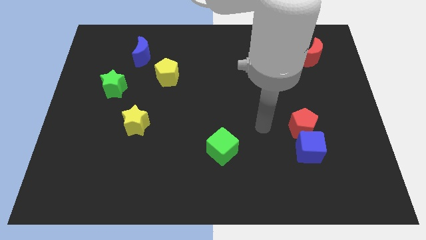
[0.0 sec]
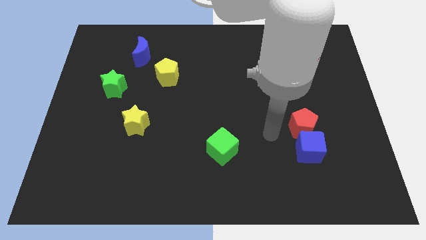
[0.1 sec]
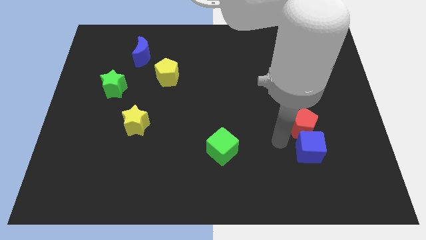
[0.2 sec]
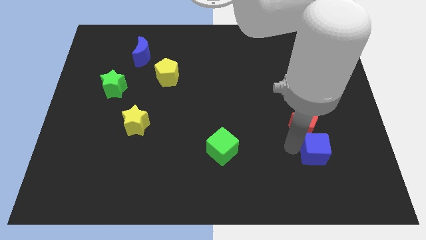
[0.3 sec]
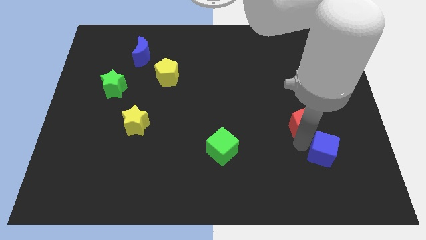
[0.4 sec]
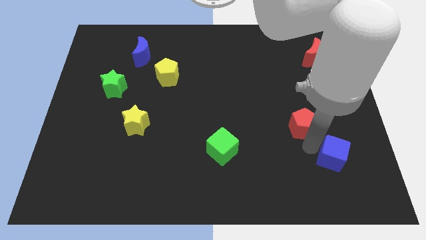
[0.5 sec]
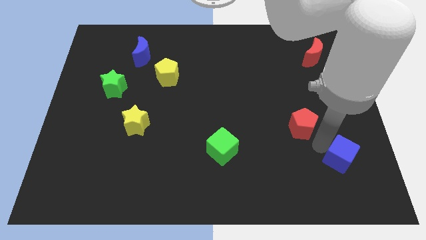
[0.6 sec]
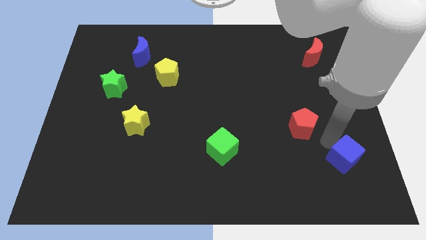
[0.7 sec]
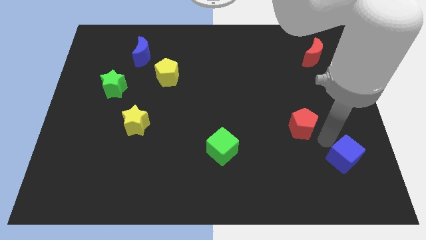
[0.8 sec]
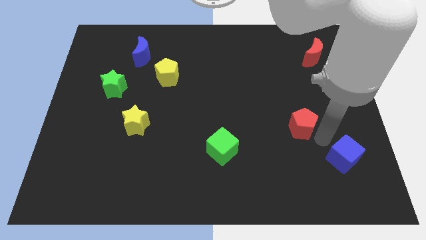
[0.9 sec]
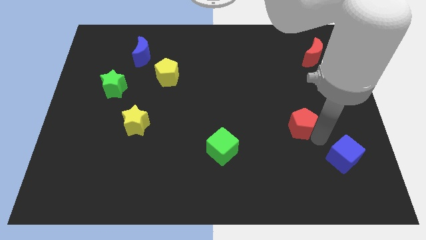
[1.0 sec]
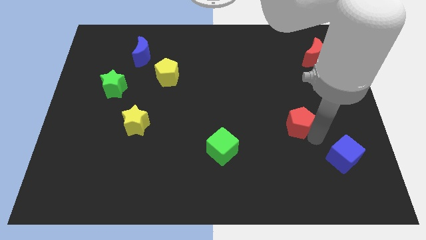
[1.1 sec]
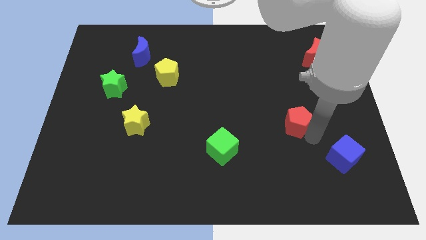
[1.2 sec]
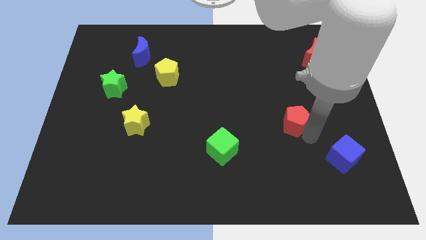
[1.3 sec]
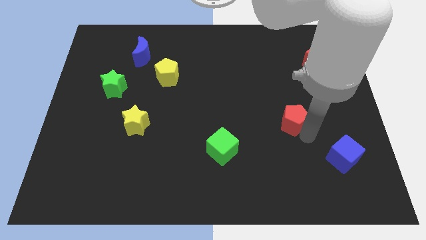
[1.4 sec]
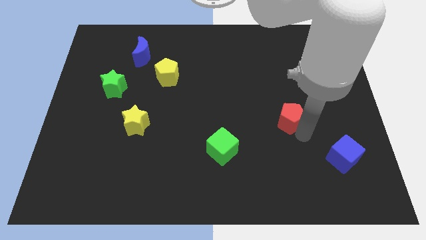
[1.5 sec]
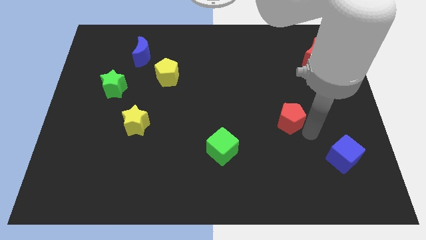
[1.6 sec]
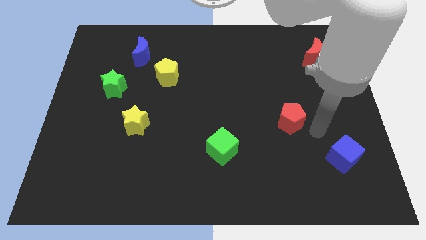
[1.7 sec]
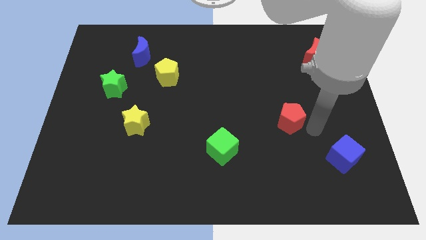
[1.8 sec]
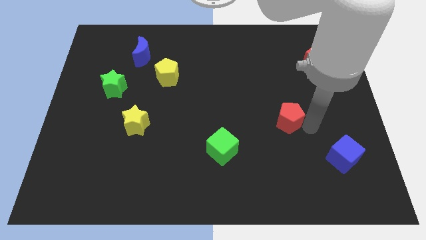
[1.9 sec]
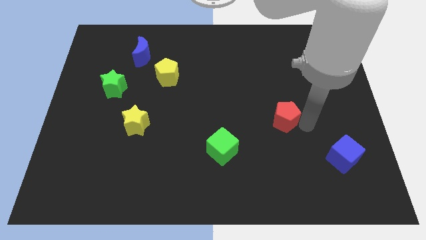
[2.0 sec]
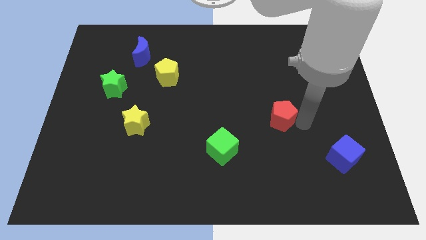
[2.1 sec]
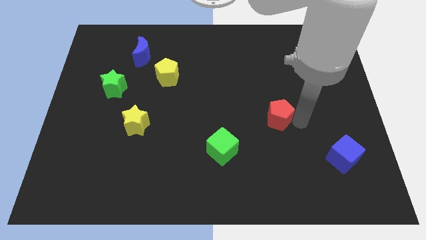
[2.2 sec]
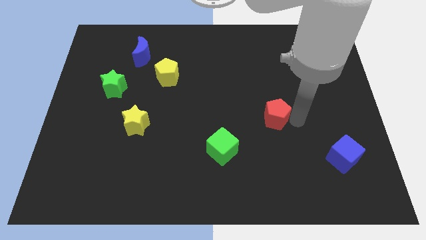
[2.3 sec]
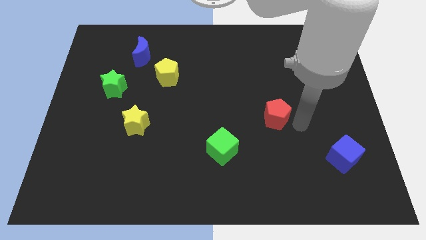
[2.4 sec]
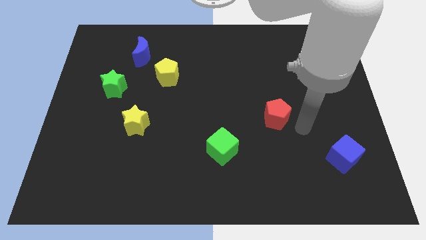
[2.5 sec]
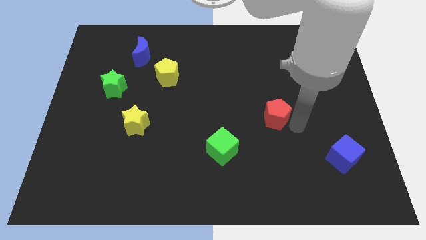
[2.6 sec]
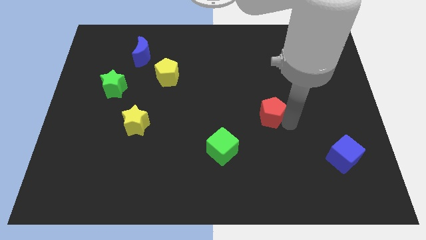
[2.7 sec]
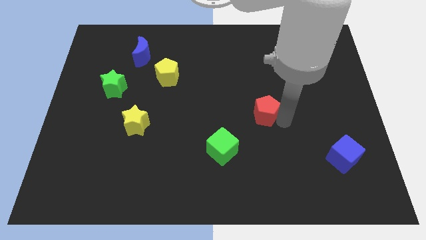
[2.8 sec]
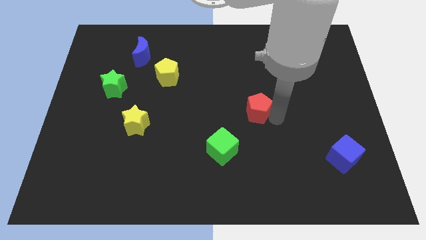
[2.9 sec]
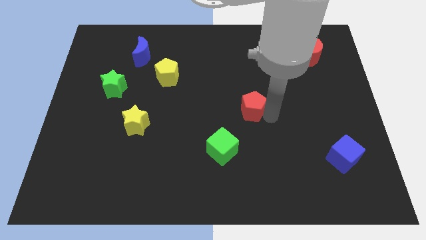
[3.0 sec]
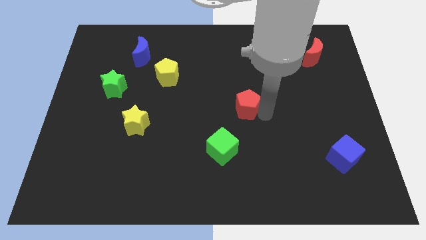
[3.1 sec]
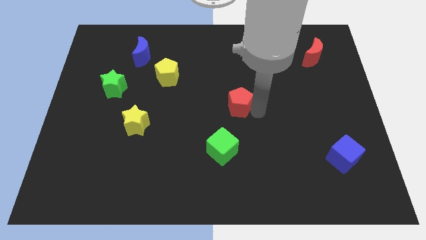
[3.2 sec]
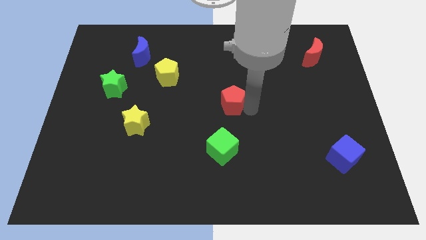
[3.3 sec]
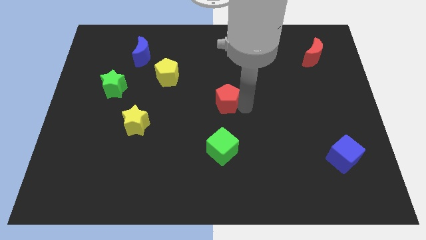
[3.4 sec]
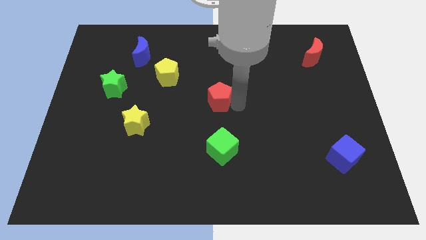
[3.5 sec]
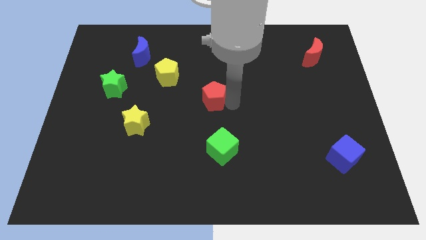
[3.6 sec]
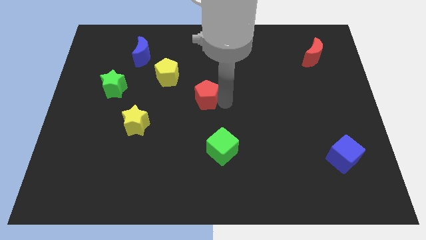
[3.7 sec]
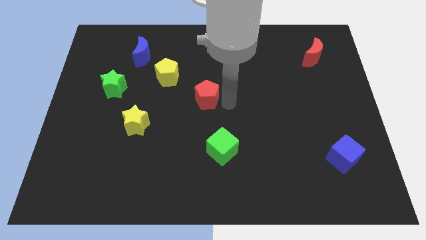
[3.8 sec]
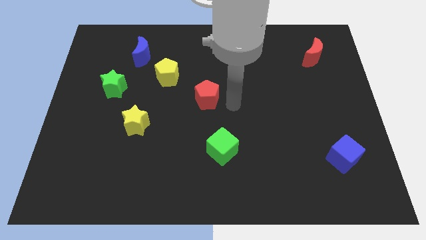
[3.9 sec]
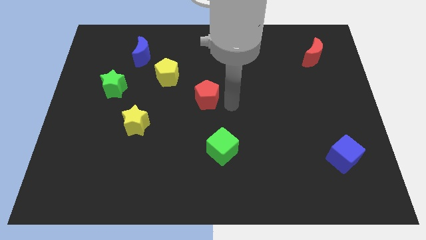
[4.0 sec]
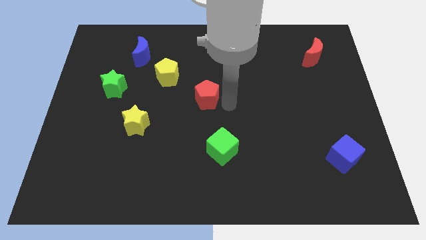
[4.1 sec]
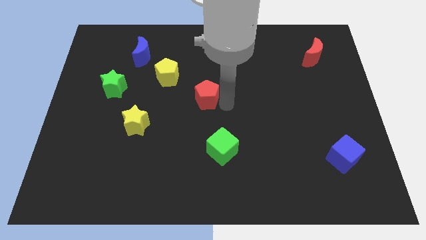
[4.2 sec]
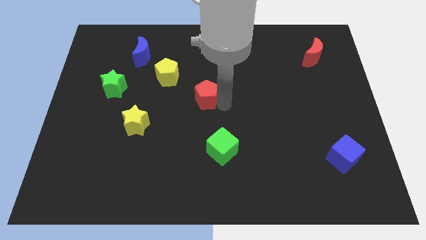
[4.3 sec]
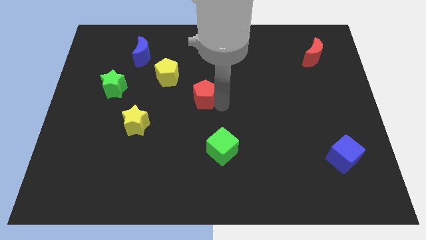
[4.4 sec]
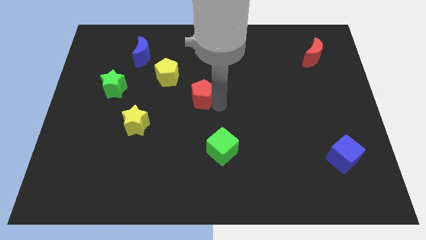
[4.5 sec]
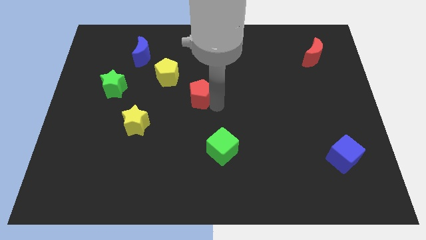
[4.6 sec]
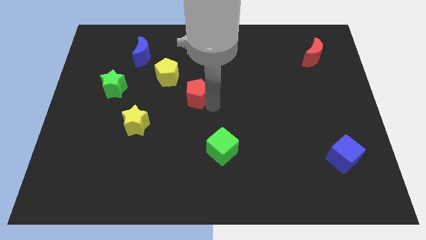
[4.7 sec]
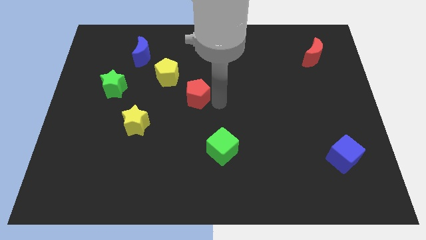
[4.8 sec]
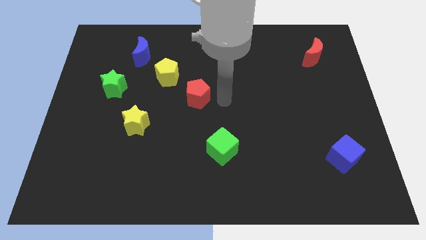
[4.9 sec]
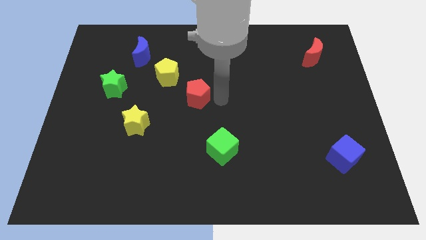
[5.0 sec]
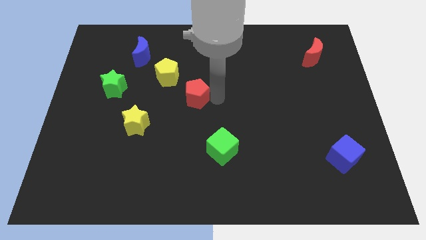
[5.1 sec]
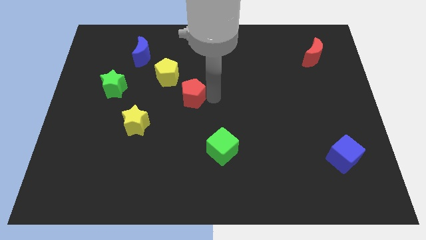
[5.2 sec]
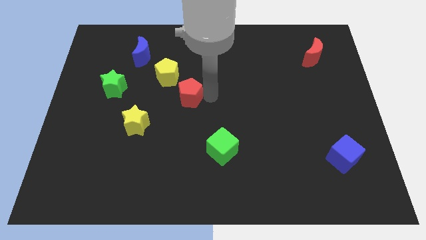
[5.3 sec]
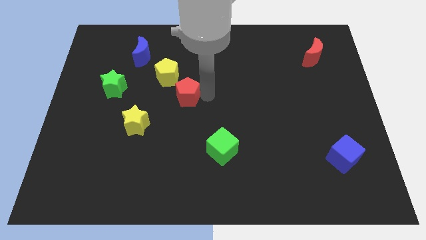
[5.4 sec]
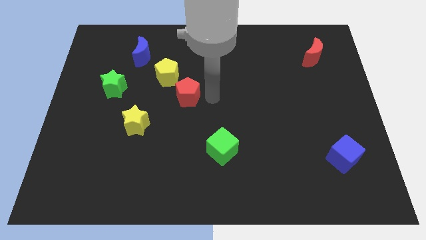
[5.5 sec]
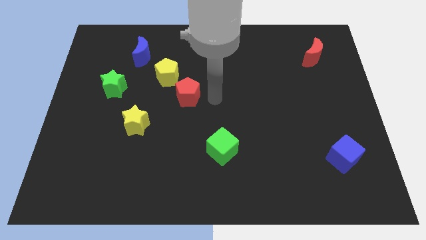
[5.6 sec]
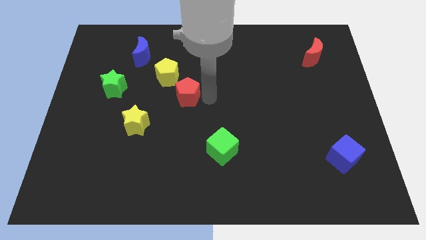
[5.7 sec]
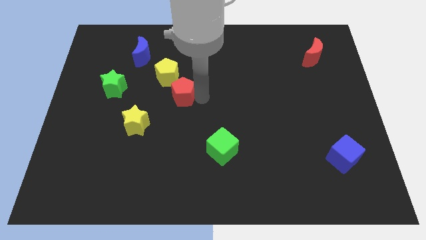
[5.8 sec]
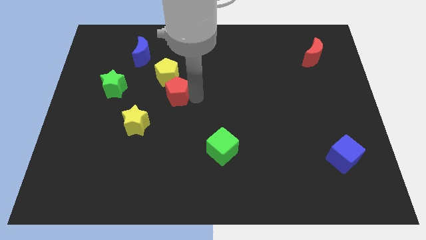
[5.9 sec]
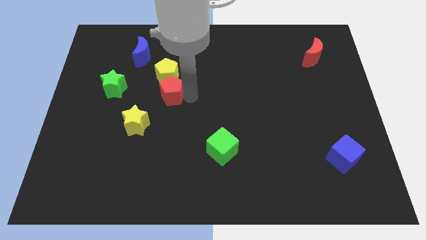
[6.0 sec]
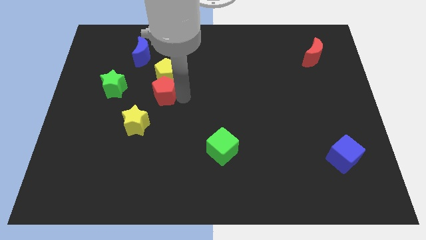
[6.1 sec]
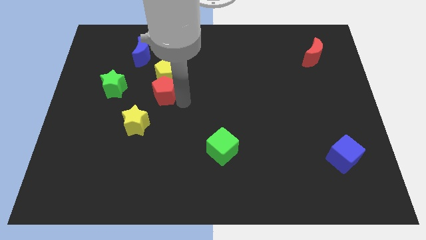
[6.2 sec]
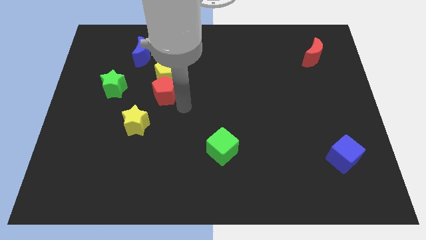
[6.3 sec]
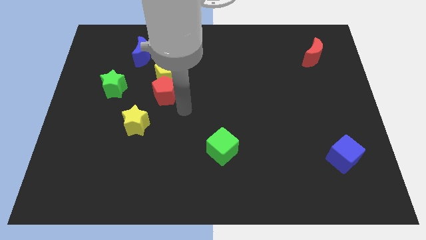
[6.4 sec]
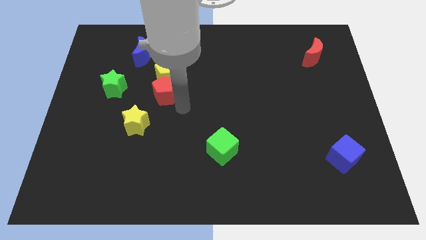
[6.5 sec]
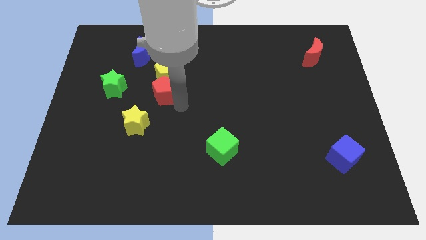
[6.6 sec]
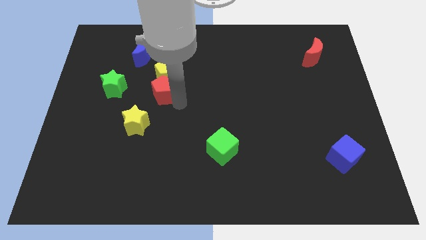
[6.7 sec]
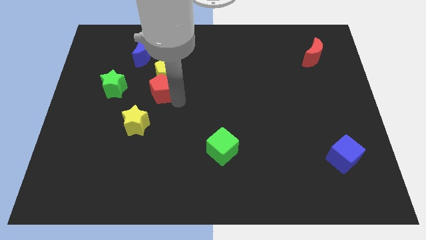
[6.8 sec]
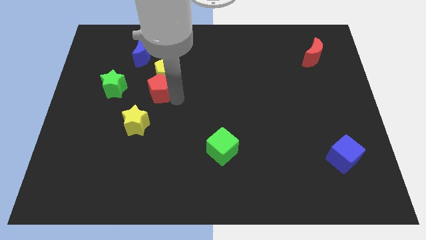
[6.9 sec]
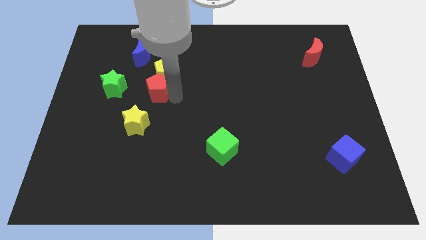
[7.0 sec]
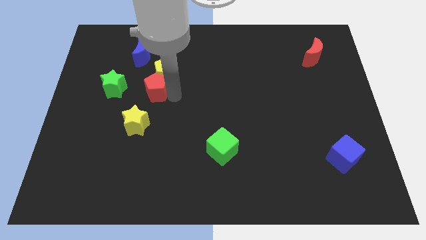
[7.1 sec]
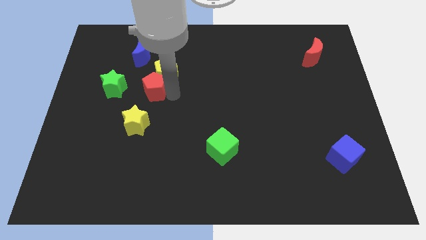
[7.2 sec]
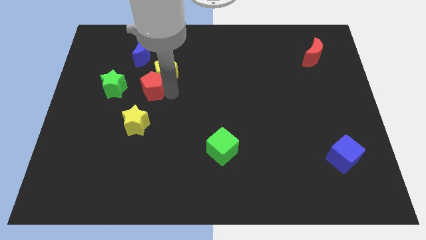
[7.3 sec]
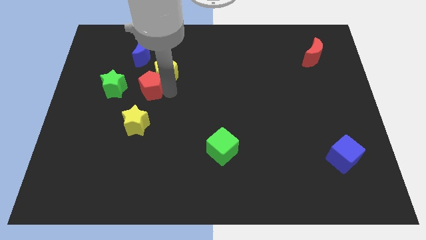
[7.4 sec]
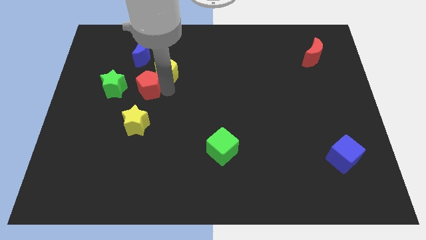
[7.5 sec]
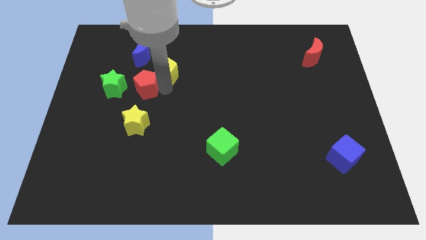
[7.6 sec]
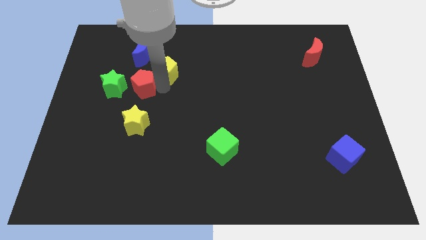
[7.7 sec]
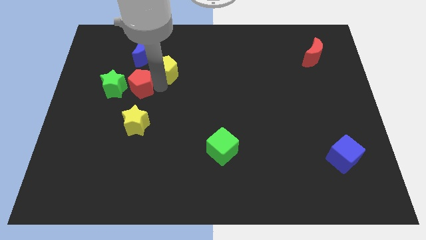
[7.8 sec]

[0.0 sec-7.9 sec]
push the red pentagon to the top right of the green star
